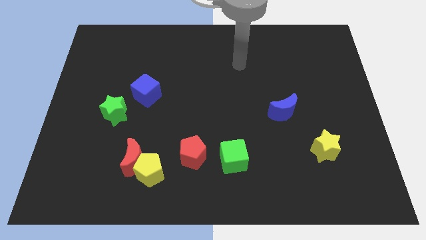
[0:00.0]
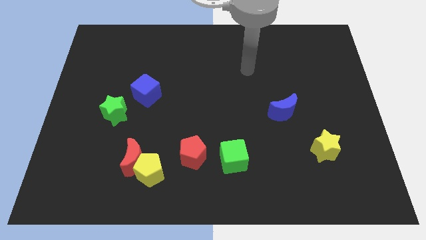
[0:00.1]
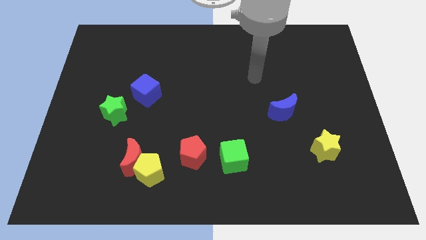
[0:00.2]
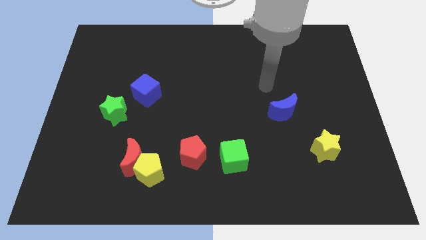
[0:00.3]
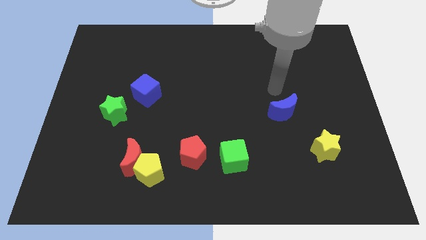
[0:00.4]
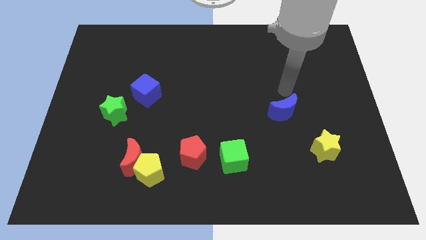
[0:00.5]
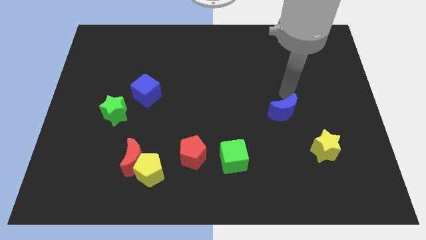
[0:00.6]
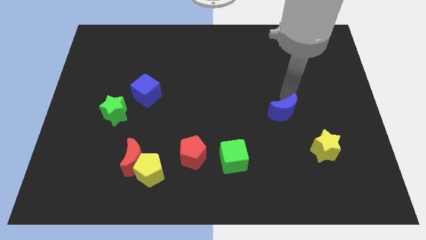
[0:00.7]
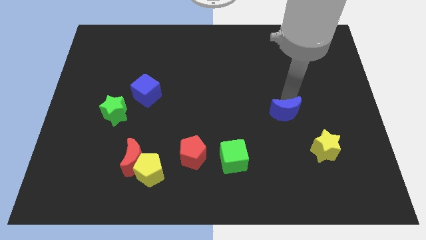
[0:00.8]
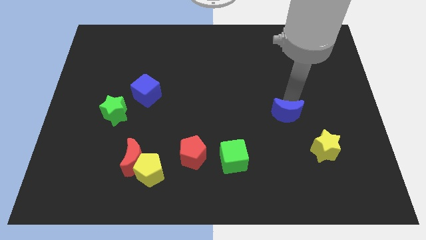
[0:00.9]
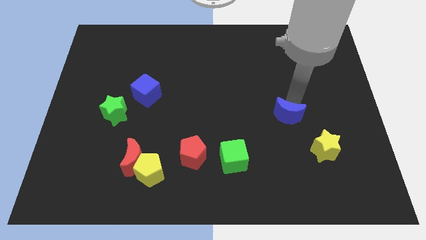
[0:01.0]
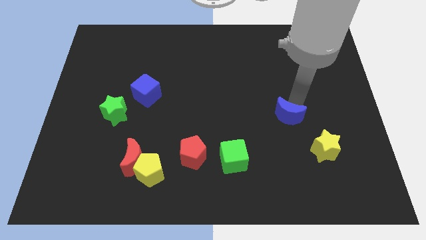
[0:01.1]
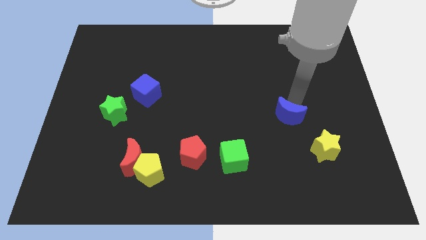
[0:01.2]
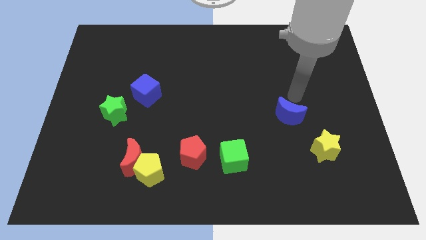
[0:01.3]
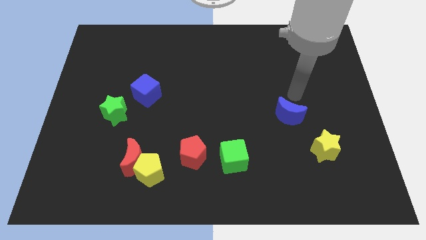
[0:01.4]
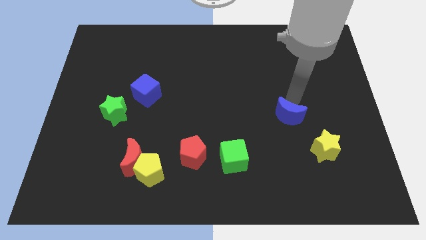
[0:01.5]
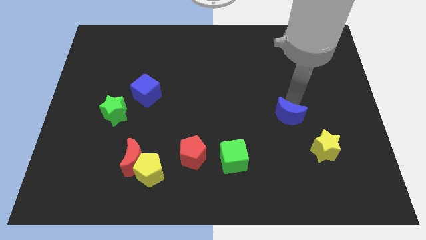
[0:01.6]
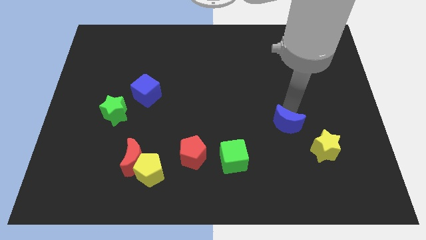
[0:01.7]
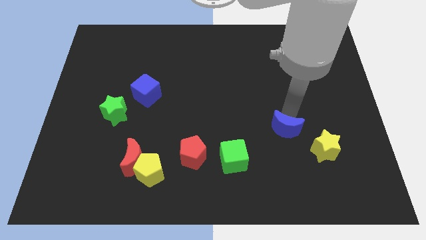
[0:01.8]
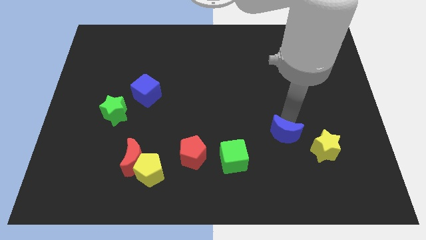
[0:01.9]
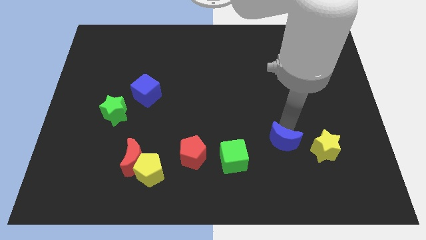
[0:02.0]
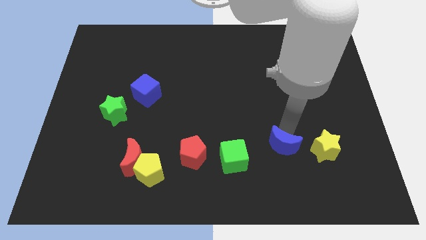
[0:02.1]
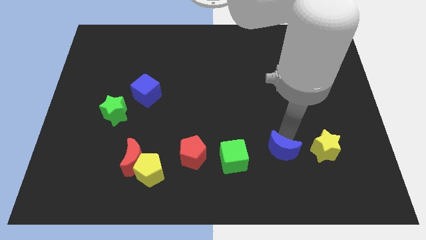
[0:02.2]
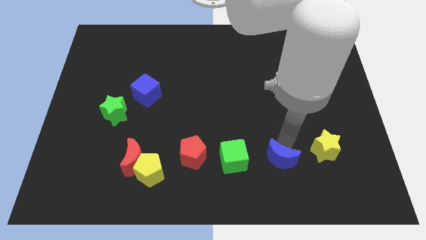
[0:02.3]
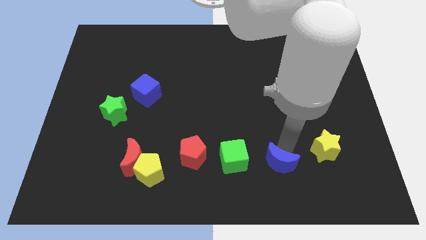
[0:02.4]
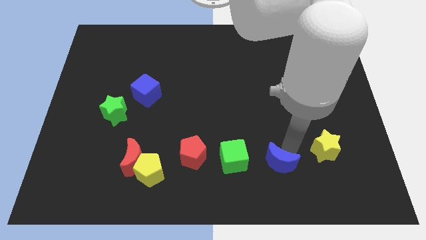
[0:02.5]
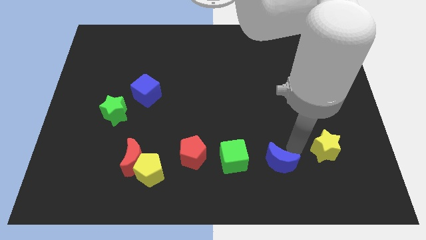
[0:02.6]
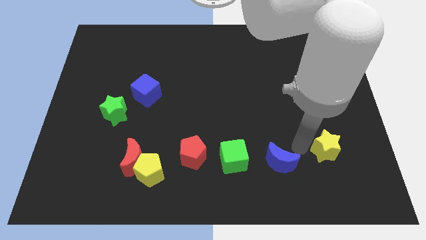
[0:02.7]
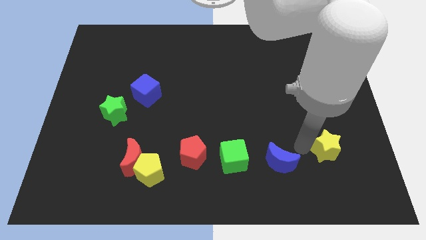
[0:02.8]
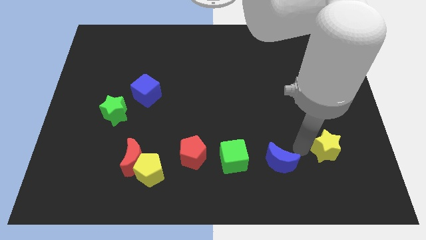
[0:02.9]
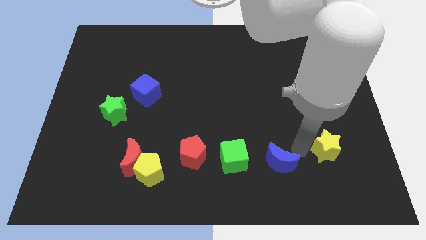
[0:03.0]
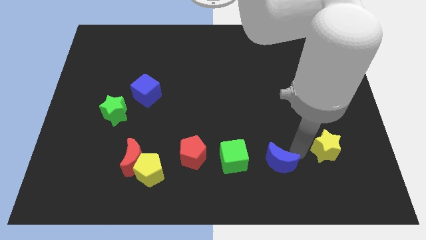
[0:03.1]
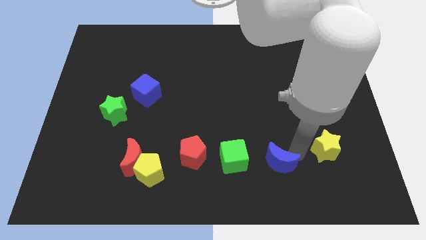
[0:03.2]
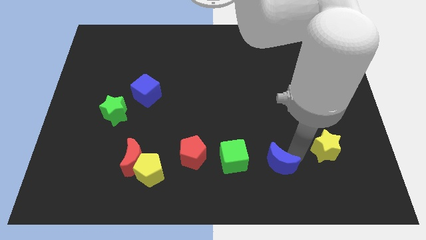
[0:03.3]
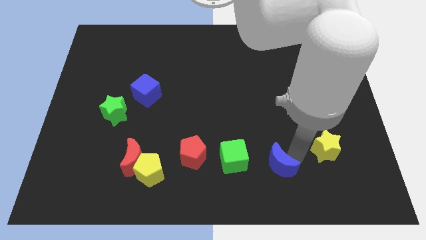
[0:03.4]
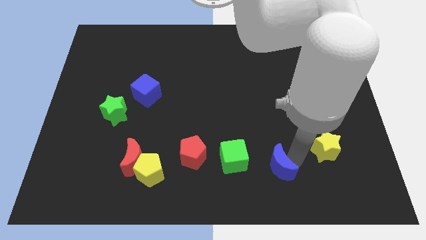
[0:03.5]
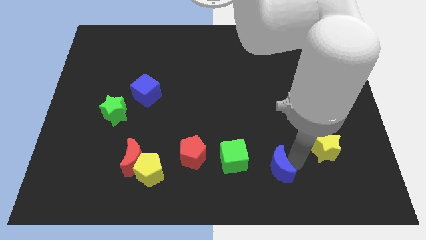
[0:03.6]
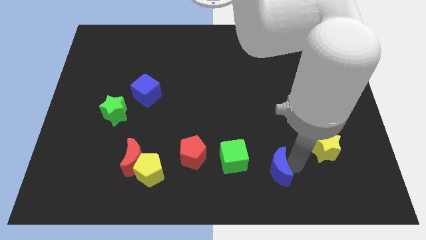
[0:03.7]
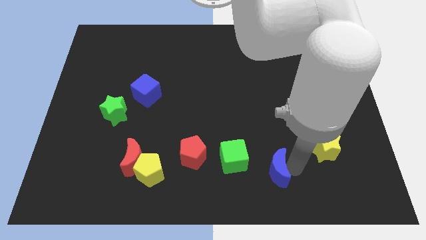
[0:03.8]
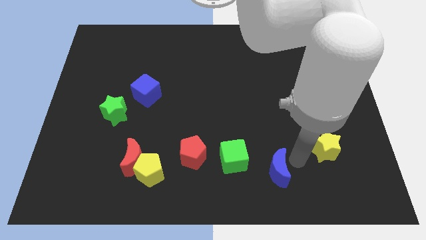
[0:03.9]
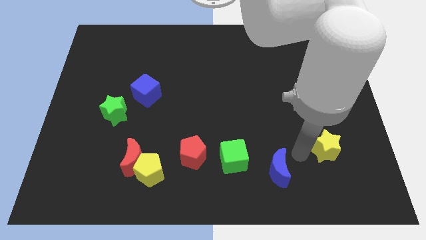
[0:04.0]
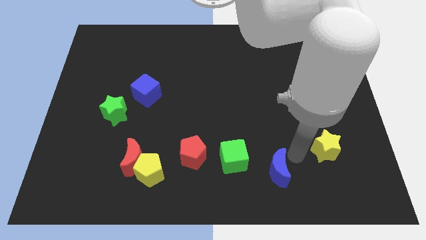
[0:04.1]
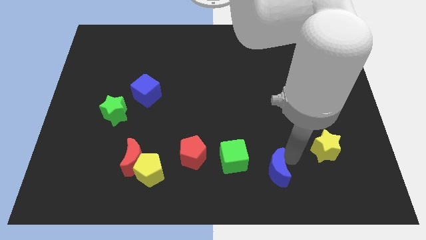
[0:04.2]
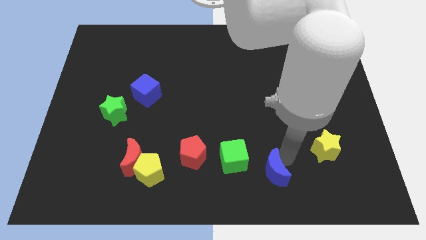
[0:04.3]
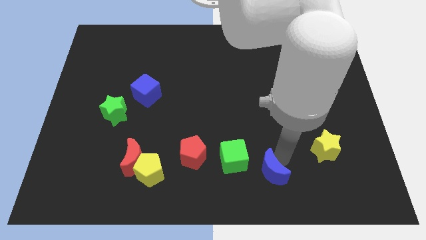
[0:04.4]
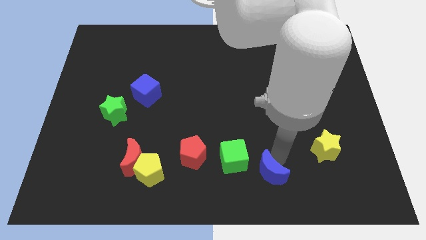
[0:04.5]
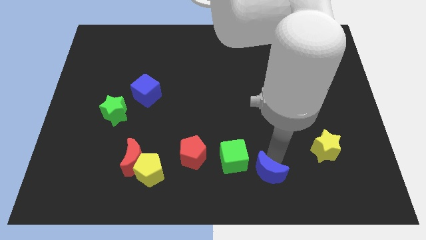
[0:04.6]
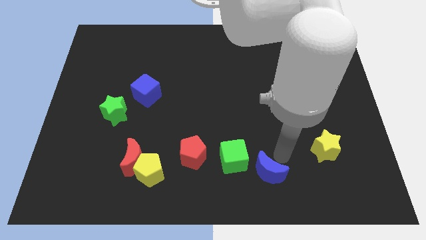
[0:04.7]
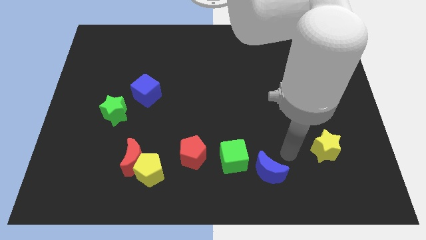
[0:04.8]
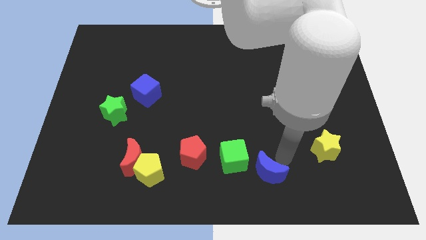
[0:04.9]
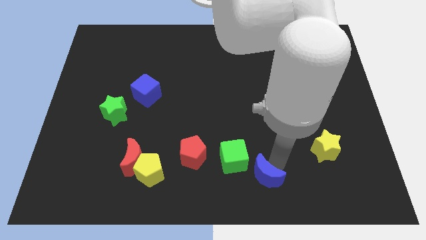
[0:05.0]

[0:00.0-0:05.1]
move the blue moon to the bottom

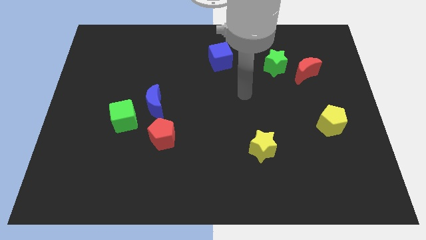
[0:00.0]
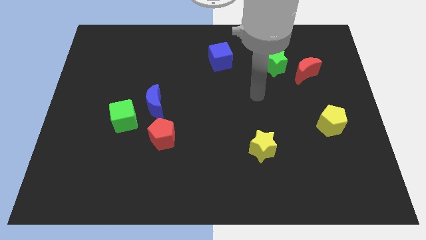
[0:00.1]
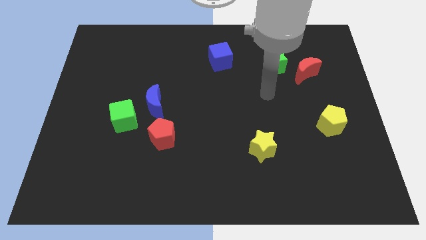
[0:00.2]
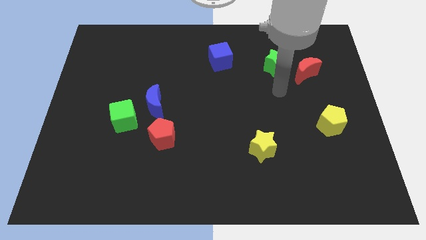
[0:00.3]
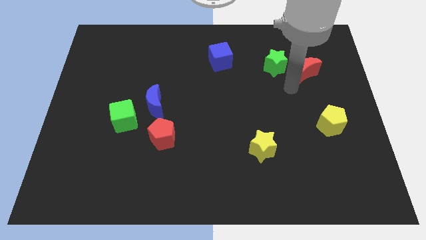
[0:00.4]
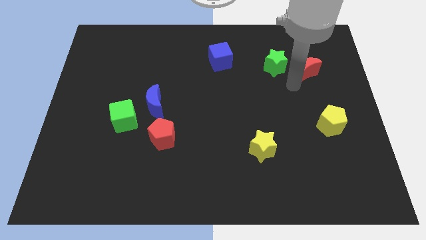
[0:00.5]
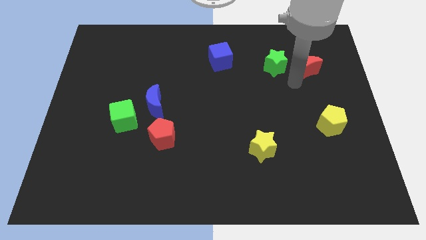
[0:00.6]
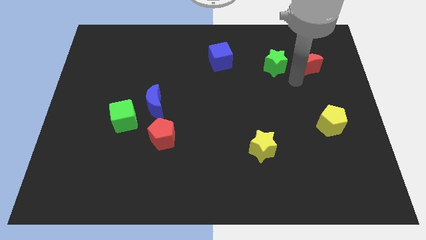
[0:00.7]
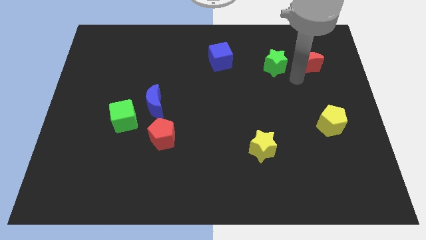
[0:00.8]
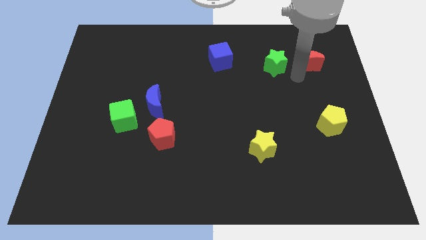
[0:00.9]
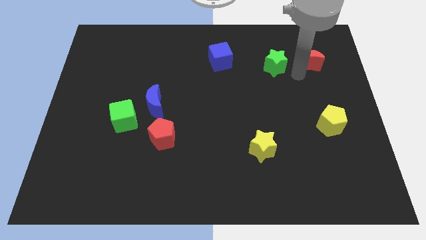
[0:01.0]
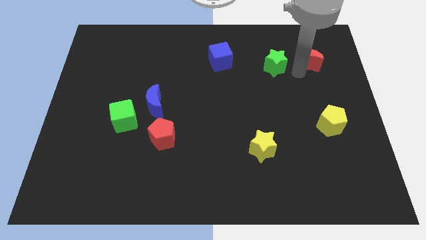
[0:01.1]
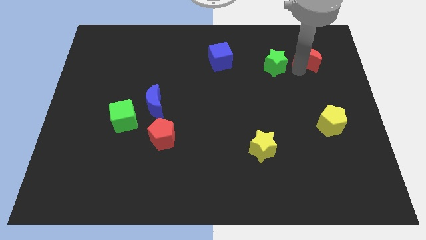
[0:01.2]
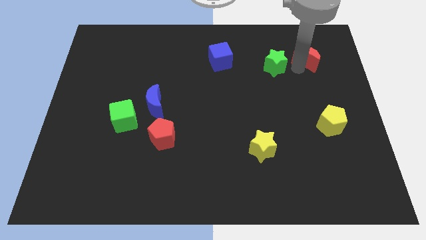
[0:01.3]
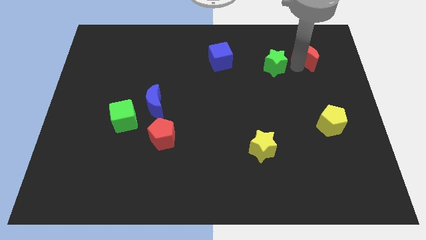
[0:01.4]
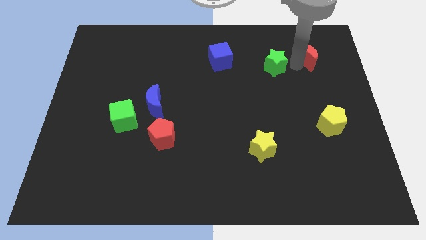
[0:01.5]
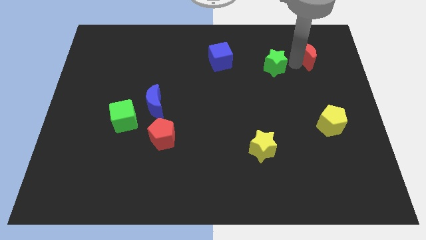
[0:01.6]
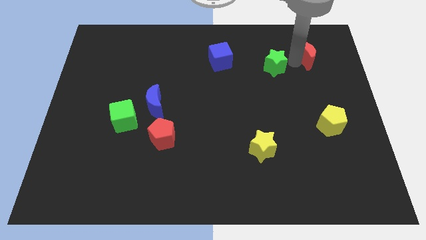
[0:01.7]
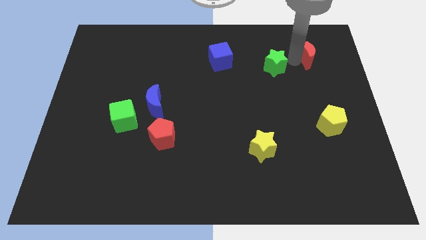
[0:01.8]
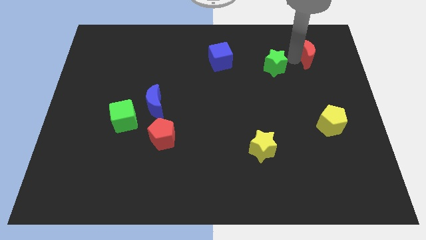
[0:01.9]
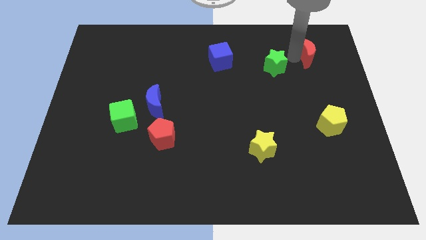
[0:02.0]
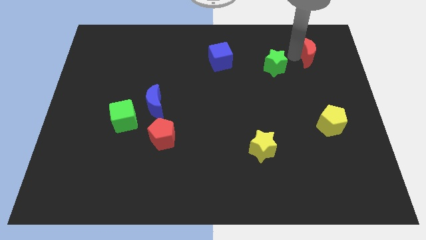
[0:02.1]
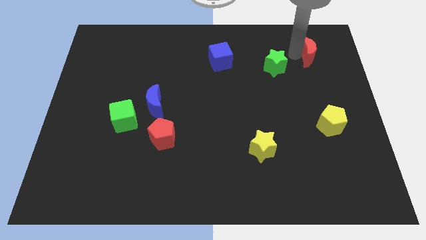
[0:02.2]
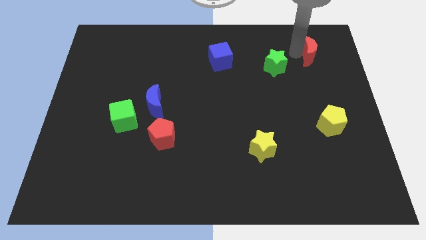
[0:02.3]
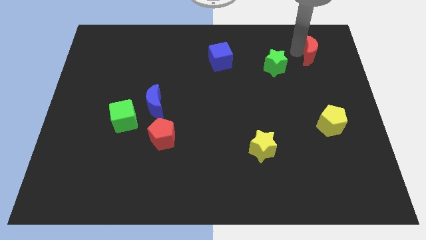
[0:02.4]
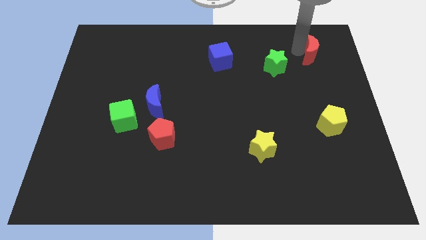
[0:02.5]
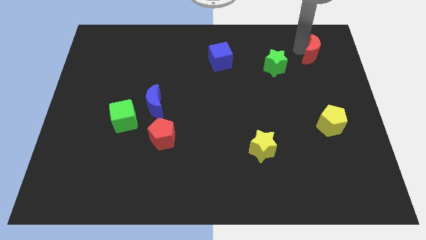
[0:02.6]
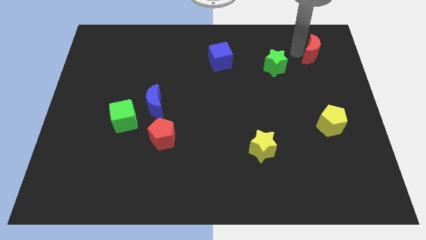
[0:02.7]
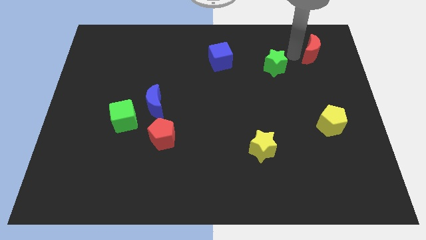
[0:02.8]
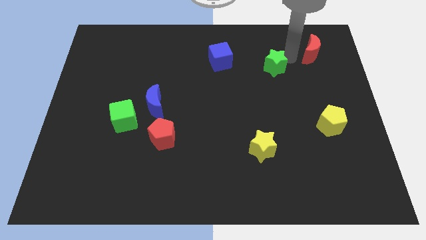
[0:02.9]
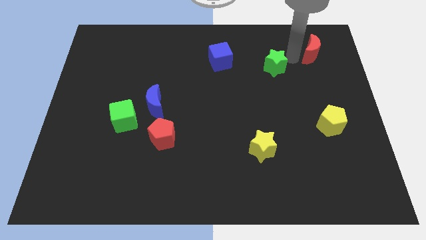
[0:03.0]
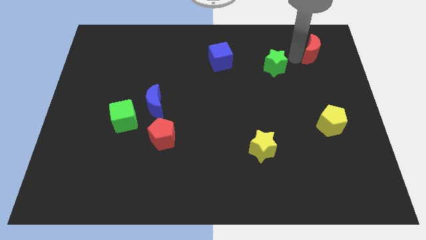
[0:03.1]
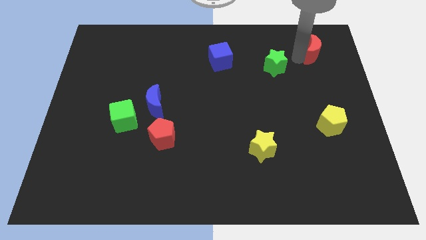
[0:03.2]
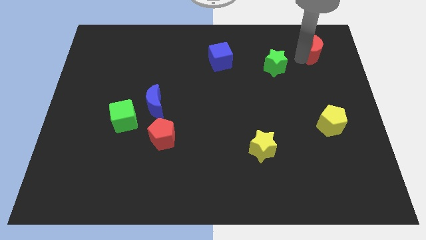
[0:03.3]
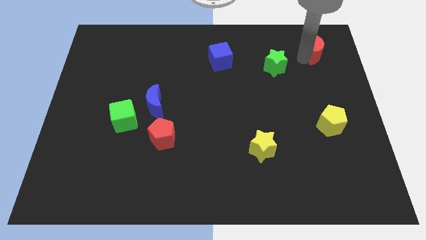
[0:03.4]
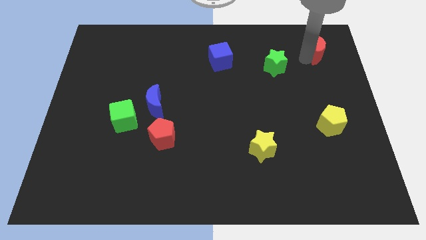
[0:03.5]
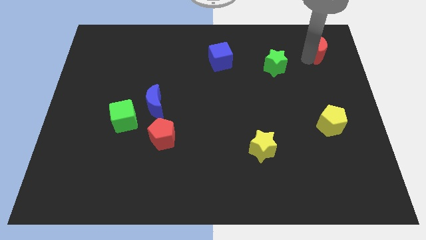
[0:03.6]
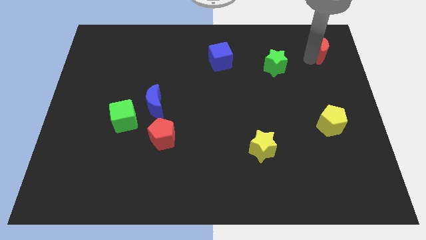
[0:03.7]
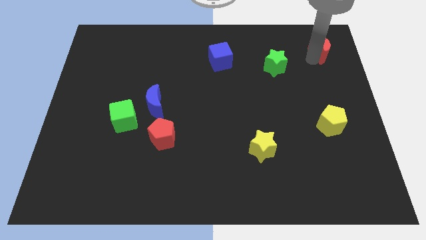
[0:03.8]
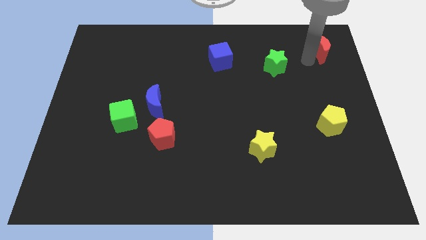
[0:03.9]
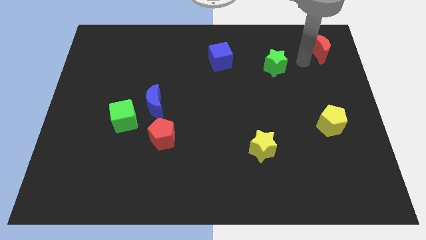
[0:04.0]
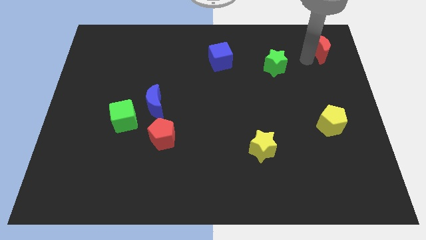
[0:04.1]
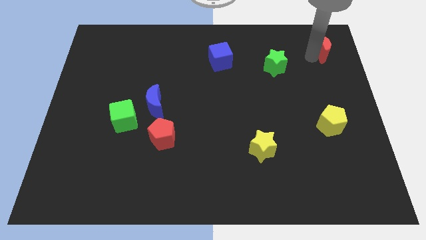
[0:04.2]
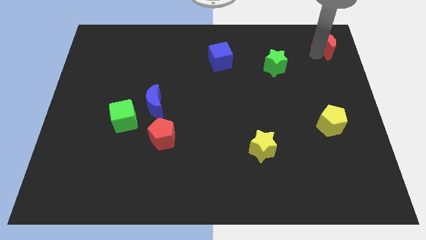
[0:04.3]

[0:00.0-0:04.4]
push the red moon to the top right of the board
